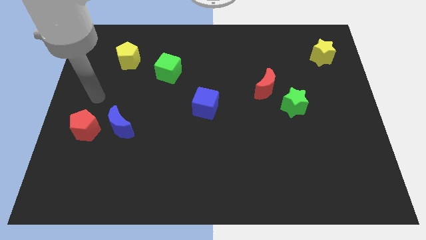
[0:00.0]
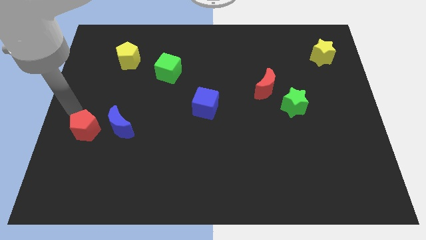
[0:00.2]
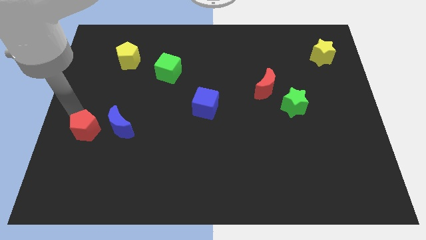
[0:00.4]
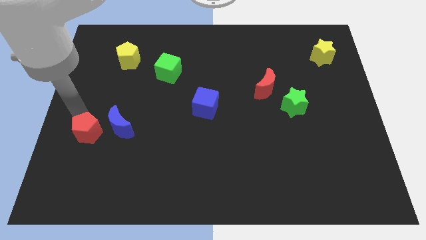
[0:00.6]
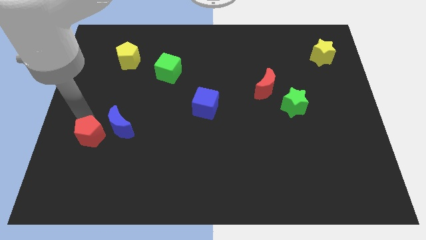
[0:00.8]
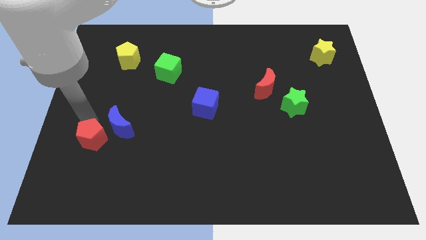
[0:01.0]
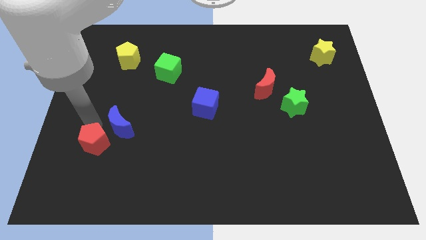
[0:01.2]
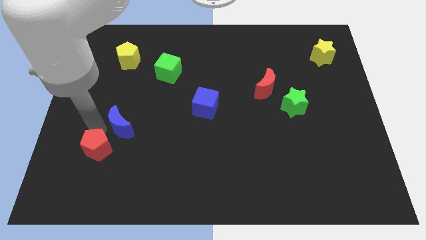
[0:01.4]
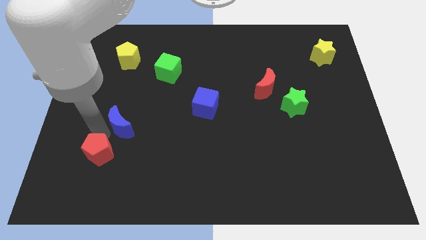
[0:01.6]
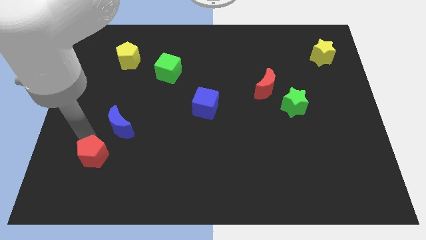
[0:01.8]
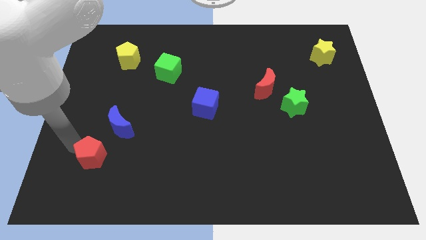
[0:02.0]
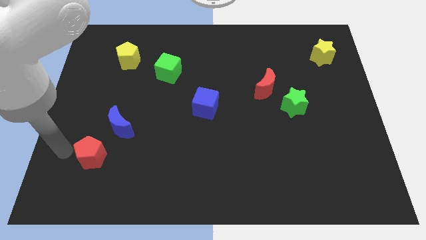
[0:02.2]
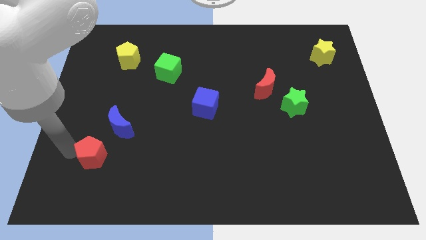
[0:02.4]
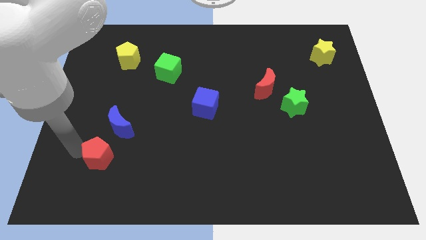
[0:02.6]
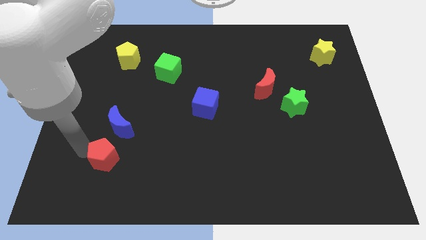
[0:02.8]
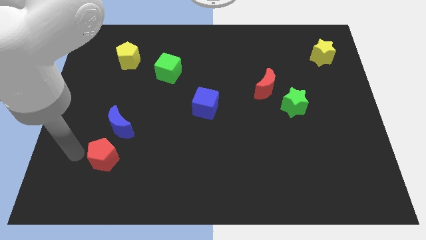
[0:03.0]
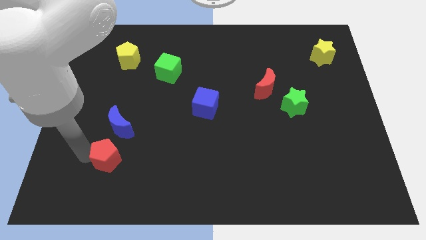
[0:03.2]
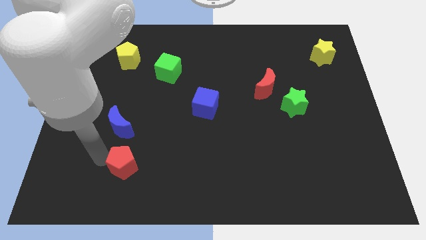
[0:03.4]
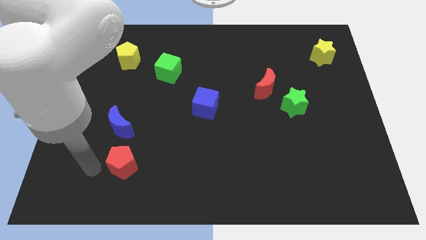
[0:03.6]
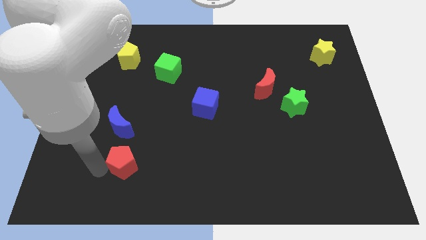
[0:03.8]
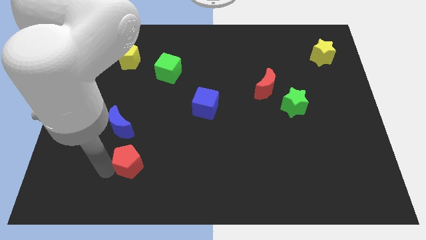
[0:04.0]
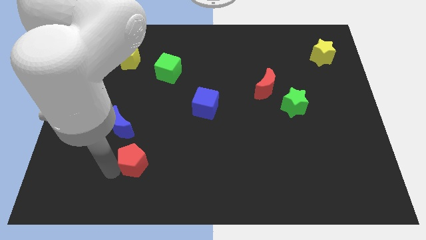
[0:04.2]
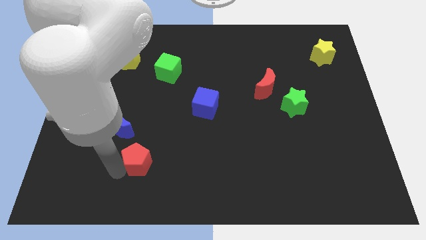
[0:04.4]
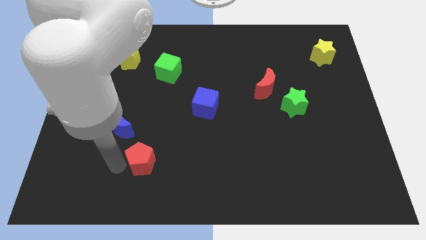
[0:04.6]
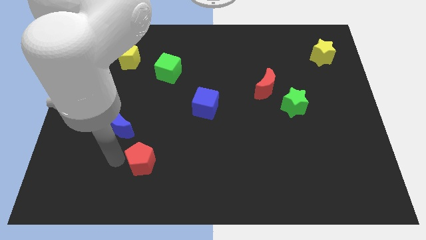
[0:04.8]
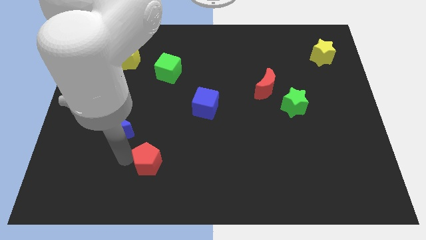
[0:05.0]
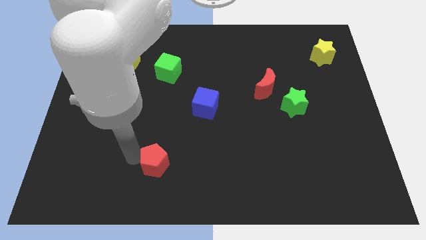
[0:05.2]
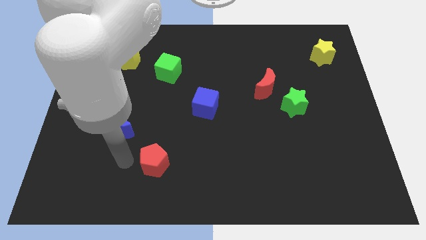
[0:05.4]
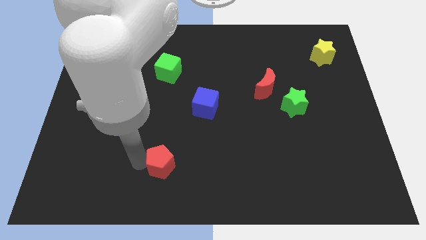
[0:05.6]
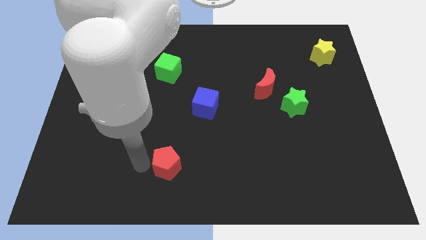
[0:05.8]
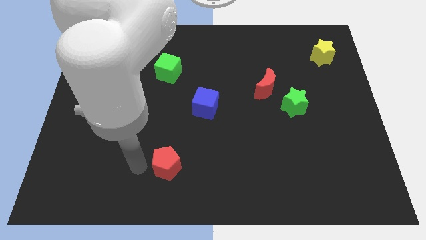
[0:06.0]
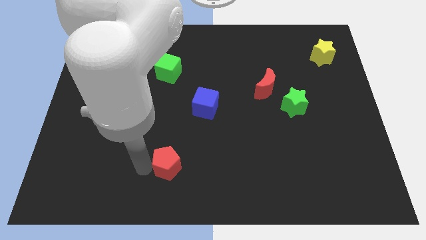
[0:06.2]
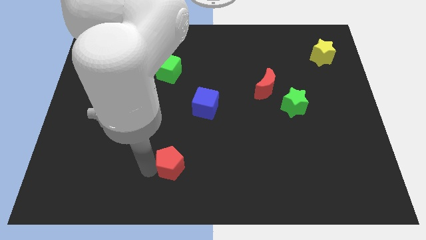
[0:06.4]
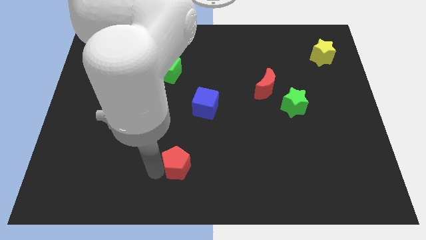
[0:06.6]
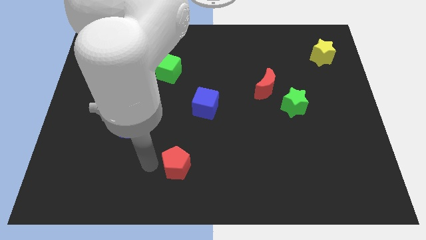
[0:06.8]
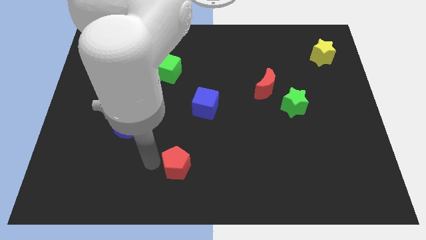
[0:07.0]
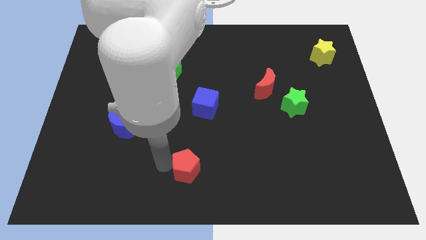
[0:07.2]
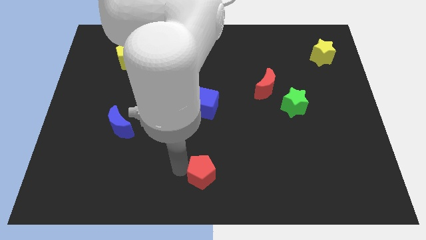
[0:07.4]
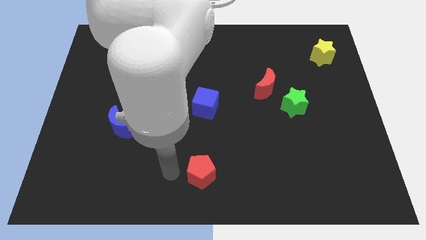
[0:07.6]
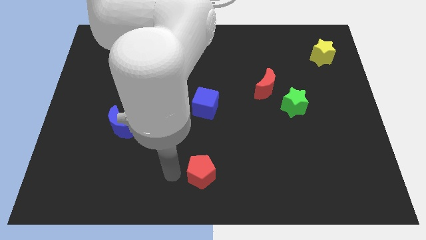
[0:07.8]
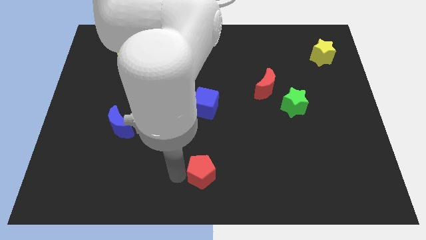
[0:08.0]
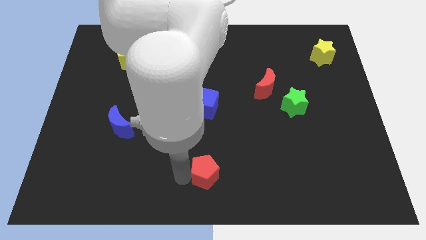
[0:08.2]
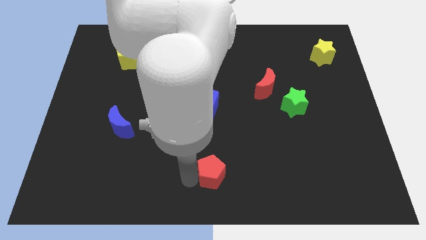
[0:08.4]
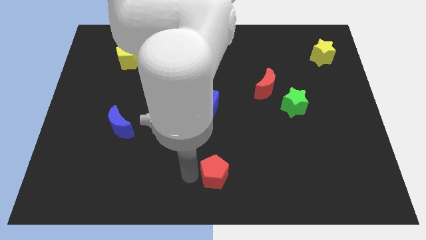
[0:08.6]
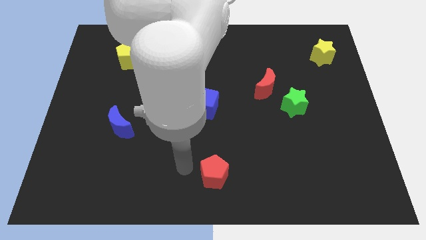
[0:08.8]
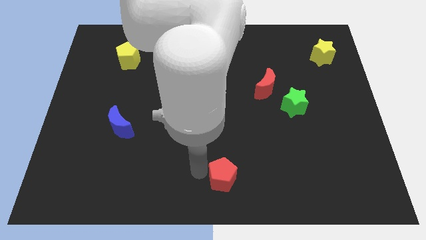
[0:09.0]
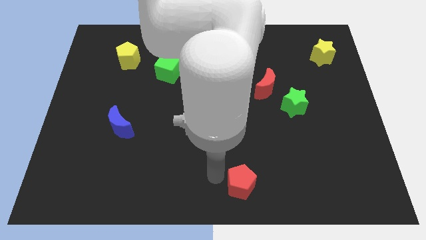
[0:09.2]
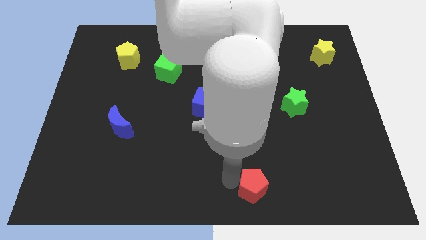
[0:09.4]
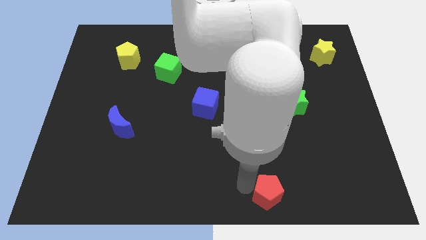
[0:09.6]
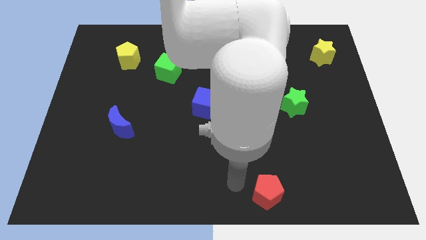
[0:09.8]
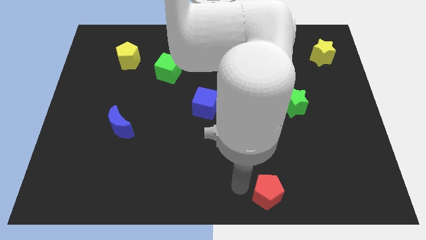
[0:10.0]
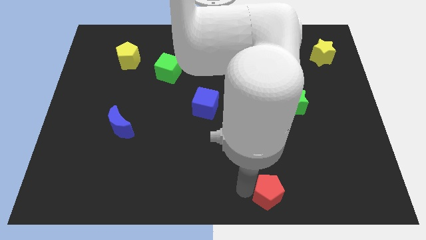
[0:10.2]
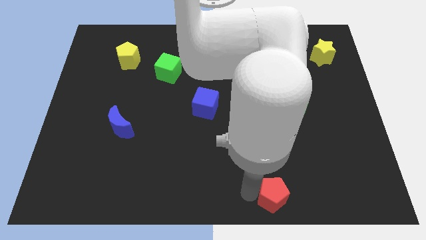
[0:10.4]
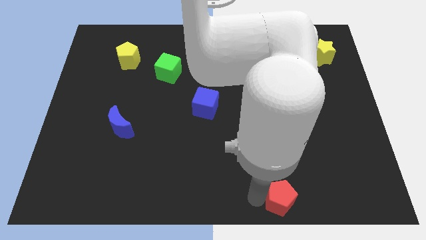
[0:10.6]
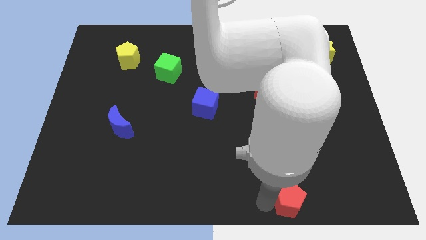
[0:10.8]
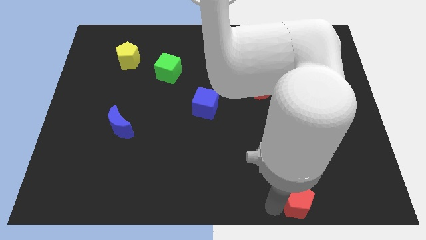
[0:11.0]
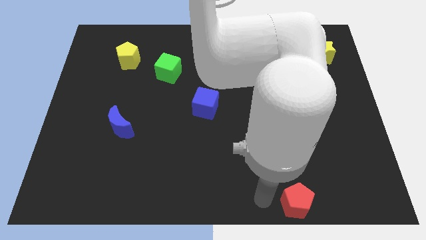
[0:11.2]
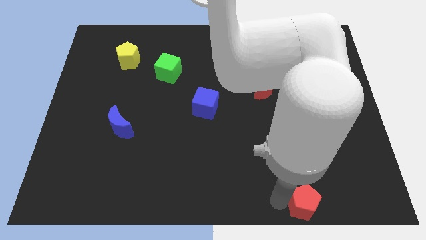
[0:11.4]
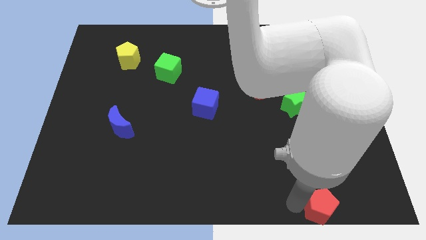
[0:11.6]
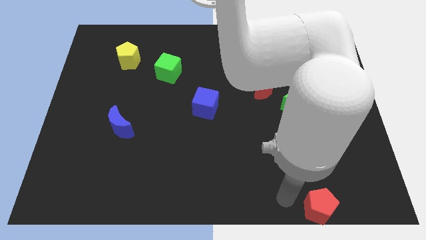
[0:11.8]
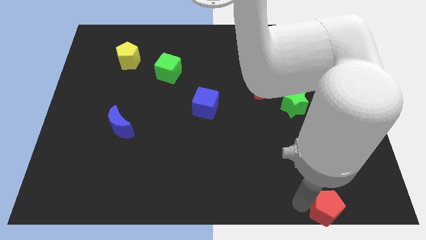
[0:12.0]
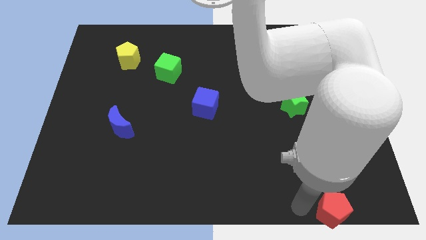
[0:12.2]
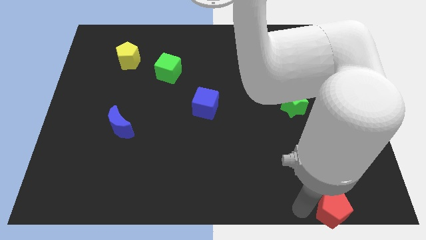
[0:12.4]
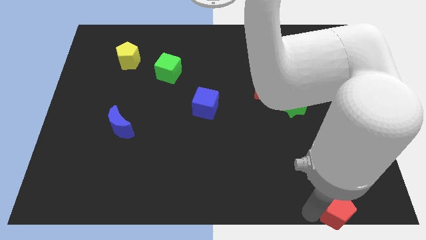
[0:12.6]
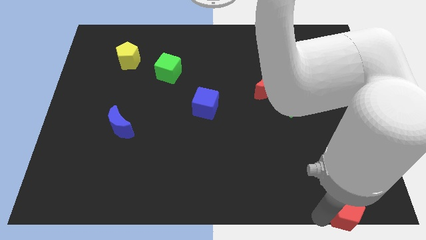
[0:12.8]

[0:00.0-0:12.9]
push the red pentagon to the bottom right corner
